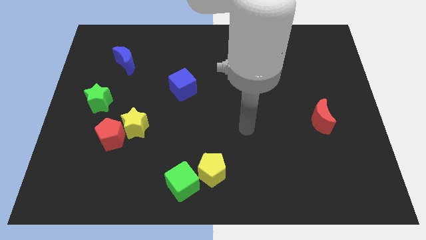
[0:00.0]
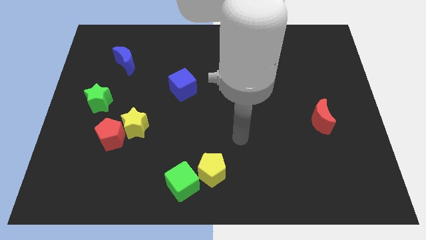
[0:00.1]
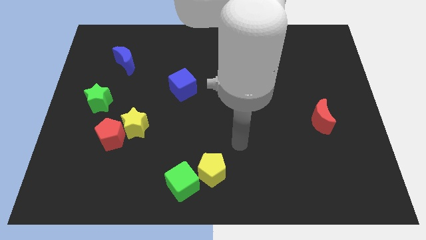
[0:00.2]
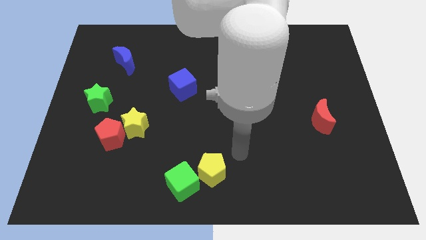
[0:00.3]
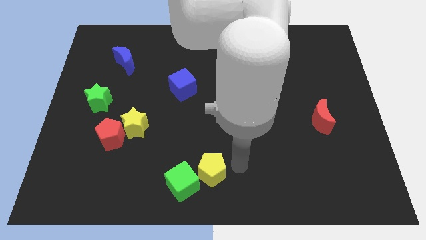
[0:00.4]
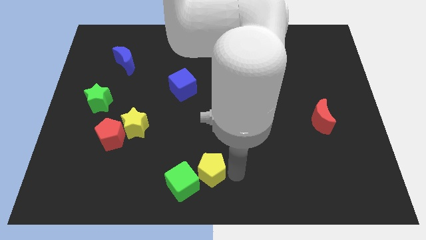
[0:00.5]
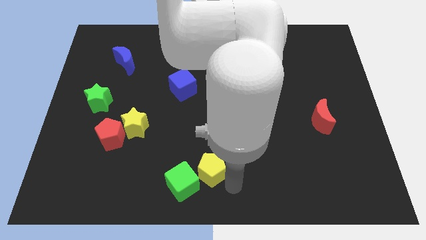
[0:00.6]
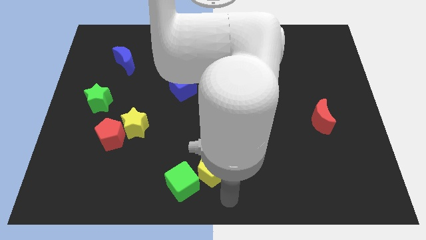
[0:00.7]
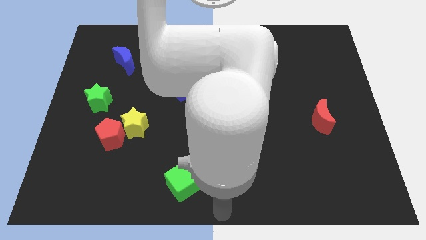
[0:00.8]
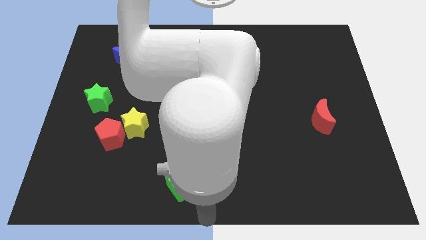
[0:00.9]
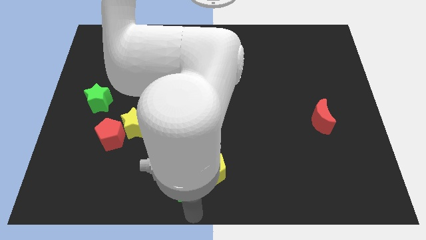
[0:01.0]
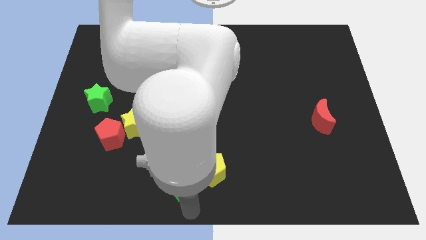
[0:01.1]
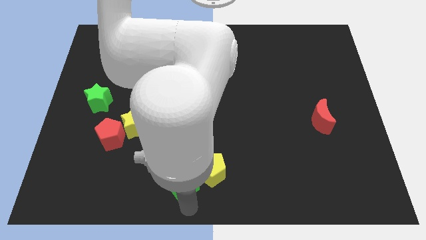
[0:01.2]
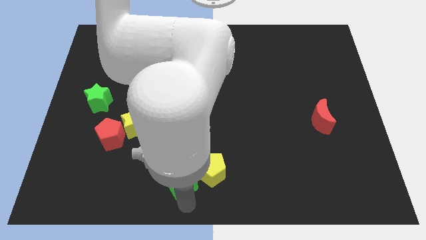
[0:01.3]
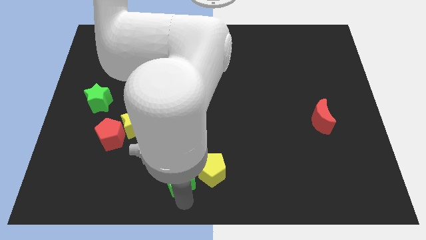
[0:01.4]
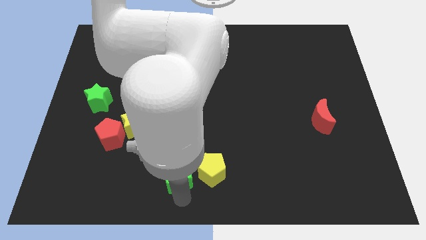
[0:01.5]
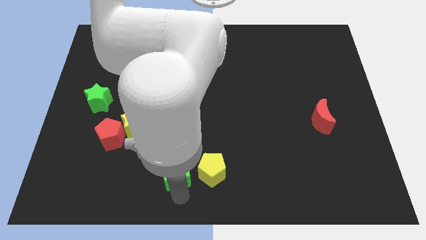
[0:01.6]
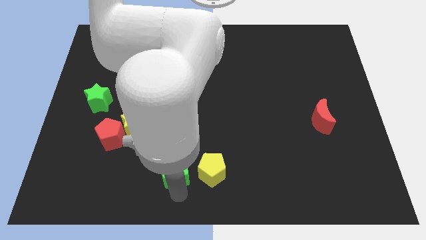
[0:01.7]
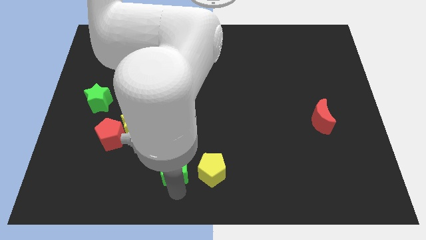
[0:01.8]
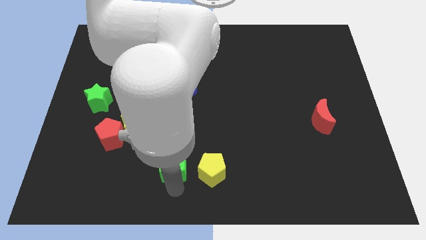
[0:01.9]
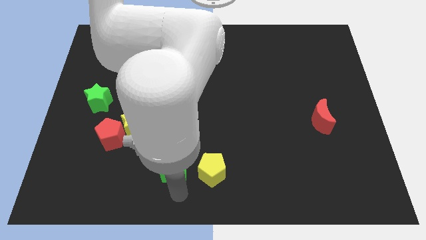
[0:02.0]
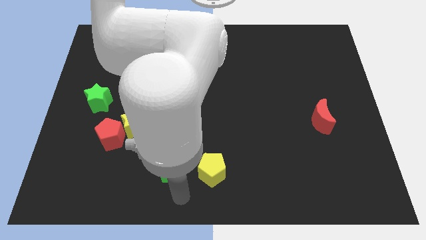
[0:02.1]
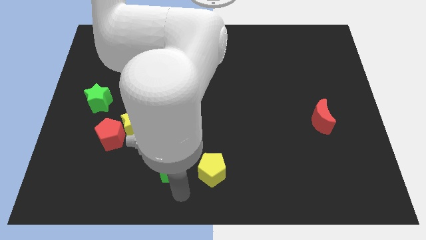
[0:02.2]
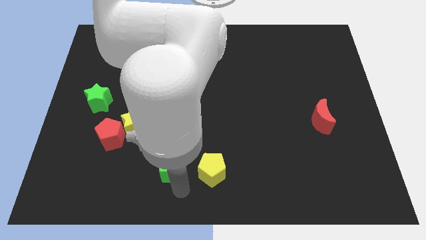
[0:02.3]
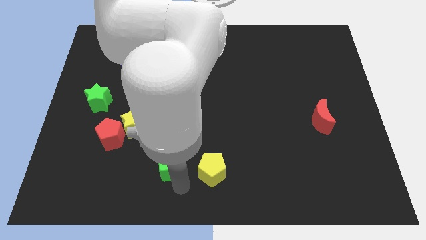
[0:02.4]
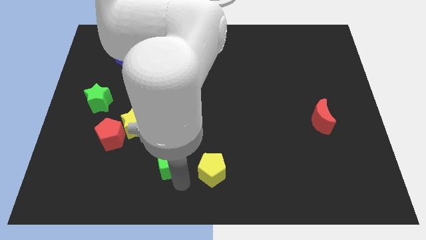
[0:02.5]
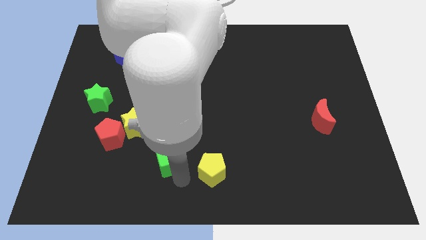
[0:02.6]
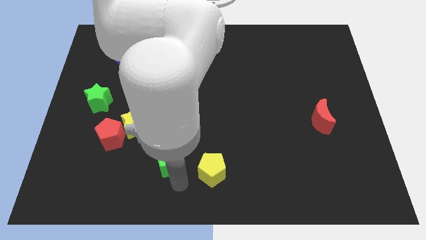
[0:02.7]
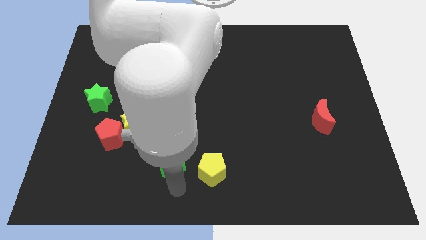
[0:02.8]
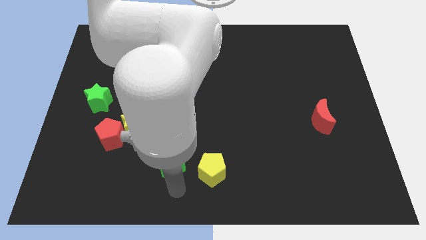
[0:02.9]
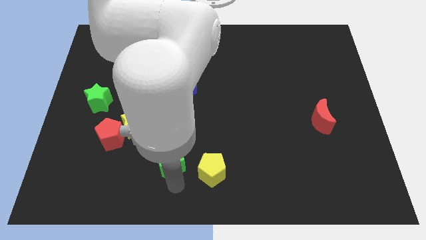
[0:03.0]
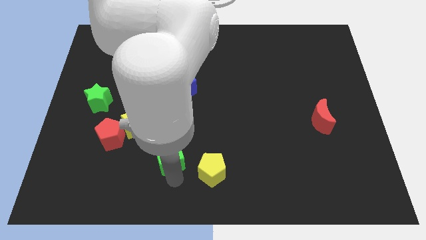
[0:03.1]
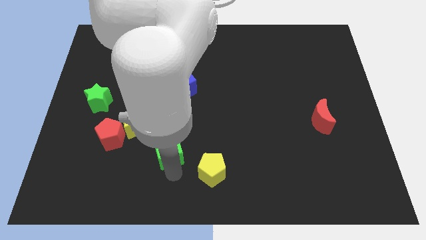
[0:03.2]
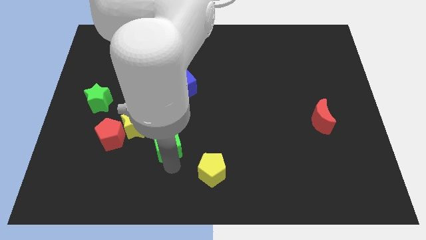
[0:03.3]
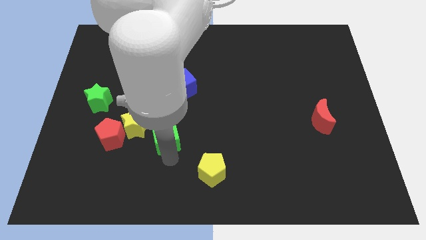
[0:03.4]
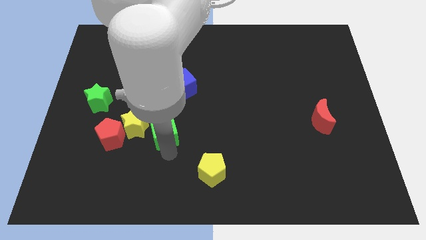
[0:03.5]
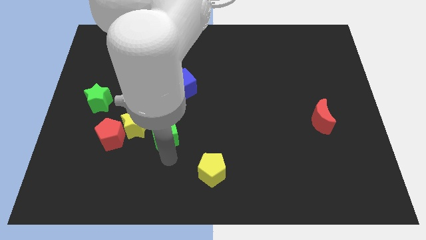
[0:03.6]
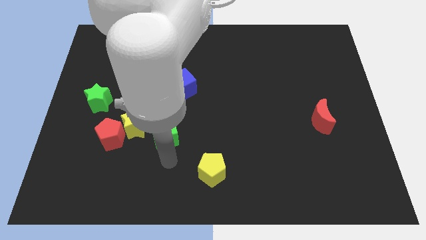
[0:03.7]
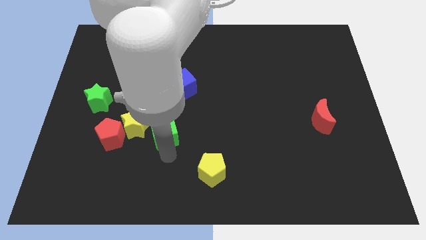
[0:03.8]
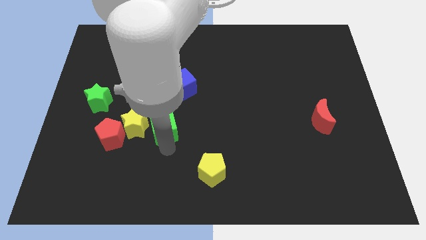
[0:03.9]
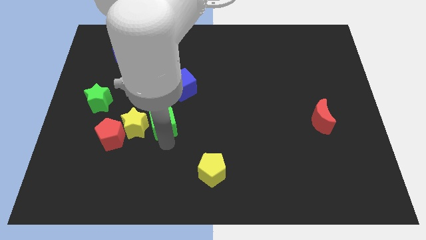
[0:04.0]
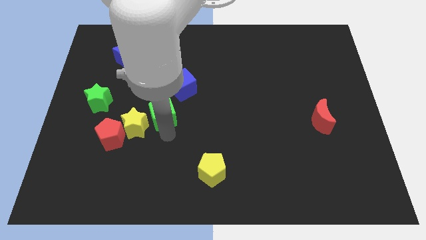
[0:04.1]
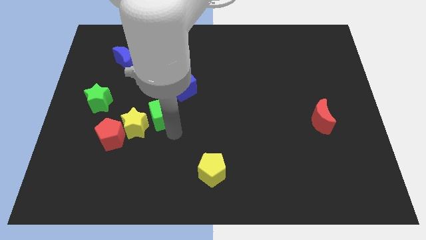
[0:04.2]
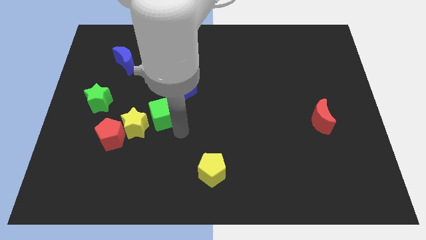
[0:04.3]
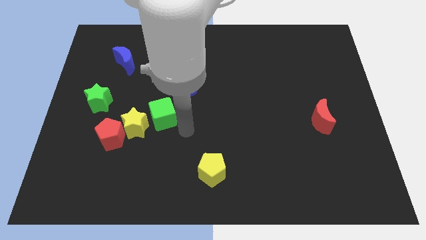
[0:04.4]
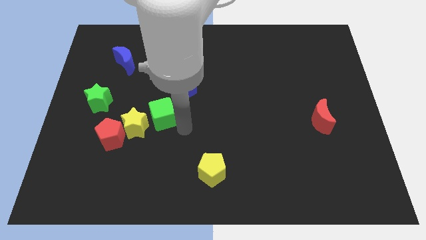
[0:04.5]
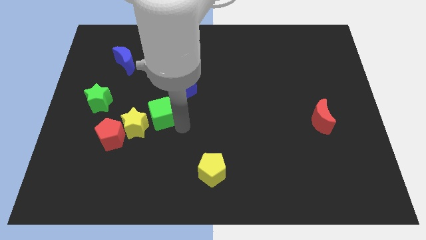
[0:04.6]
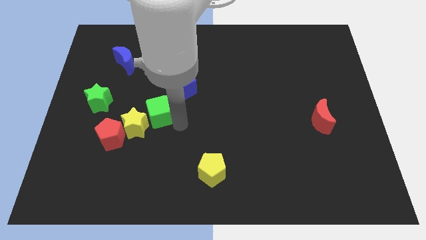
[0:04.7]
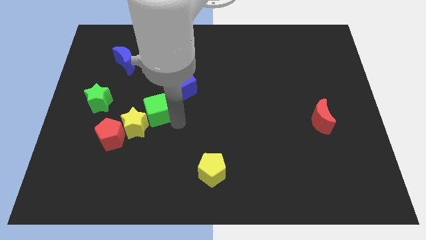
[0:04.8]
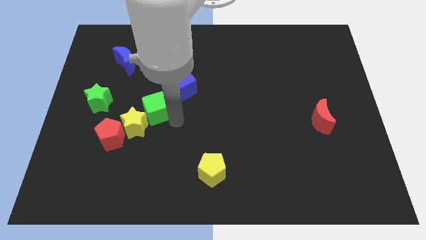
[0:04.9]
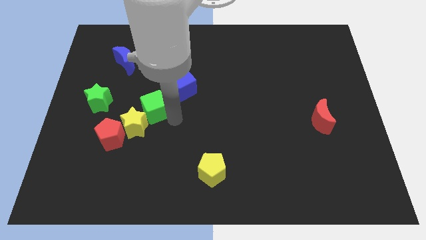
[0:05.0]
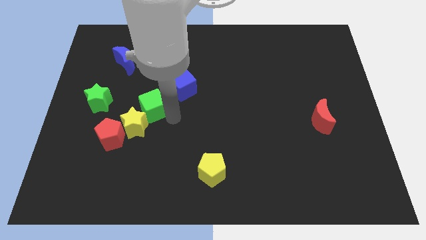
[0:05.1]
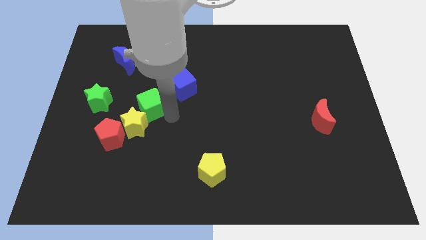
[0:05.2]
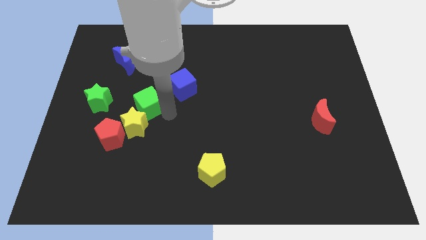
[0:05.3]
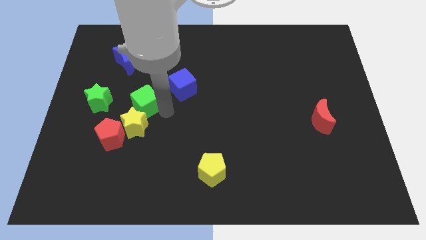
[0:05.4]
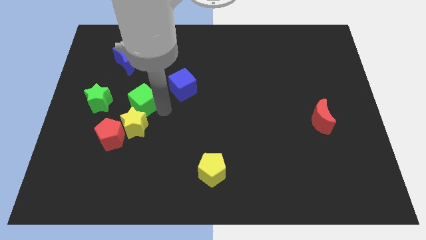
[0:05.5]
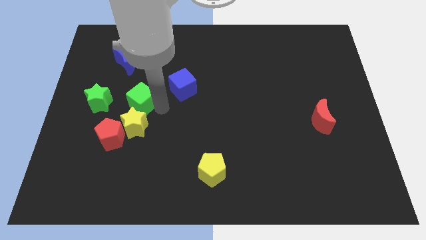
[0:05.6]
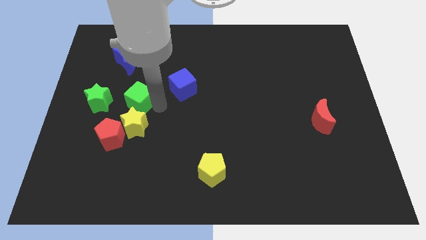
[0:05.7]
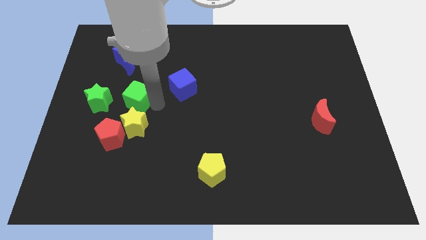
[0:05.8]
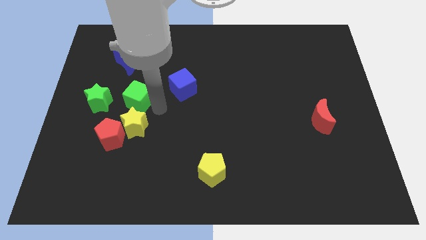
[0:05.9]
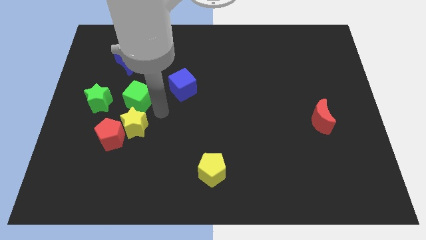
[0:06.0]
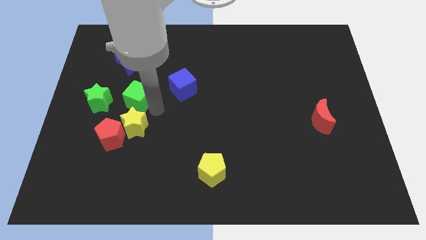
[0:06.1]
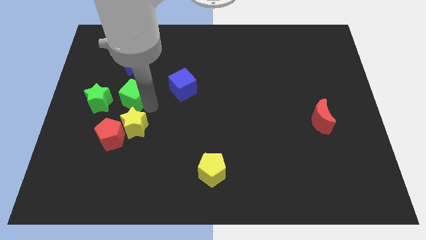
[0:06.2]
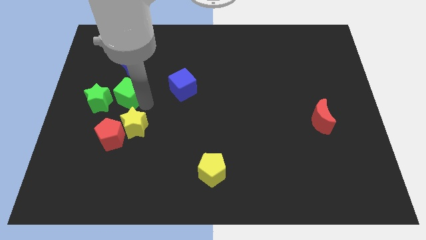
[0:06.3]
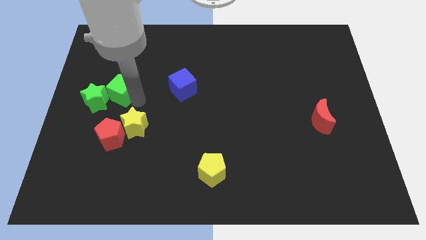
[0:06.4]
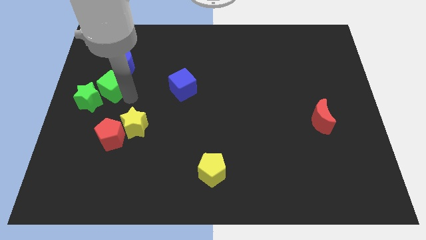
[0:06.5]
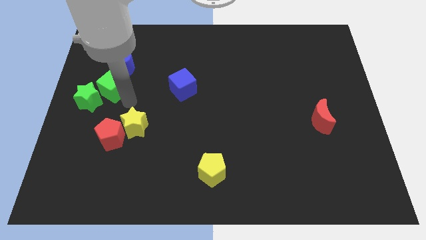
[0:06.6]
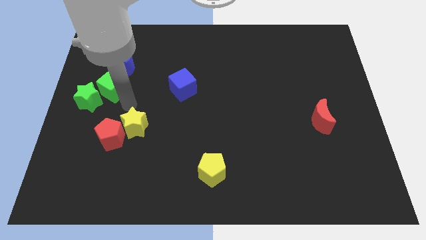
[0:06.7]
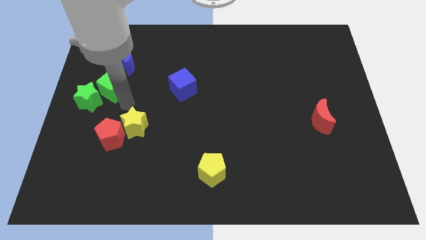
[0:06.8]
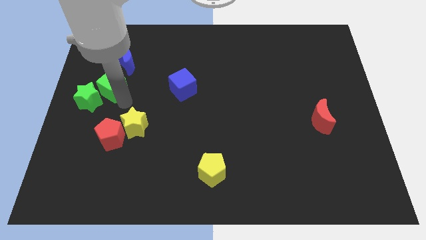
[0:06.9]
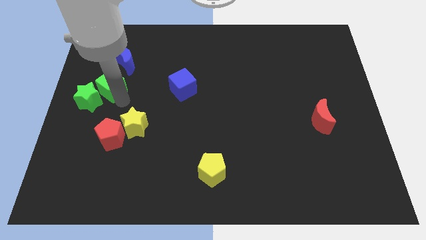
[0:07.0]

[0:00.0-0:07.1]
slide the green cube to the bottom left of the blue moon
